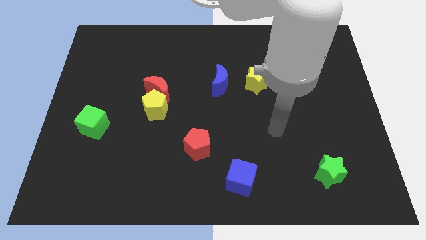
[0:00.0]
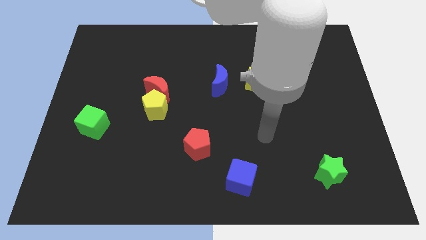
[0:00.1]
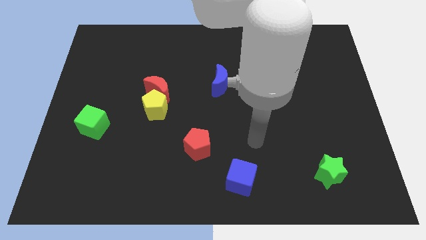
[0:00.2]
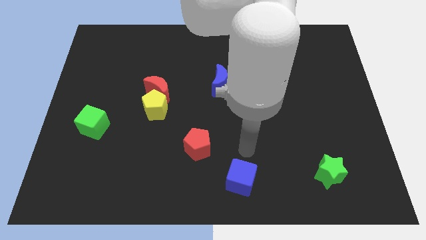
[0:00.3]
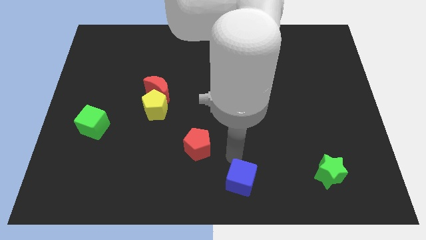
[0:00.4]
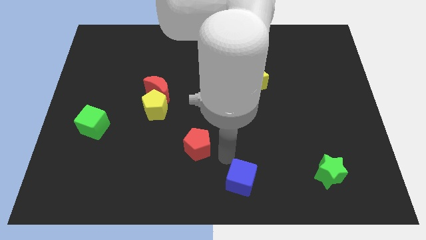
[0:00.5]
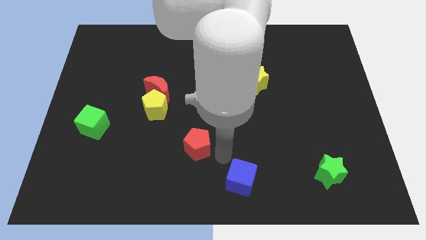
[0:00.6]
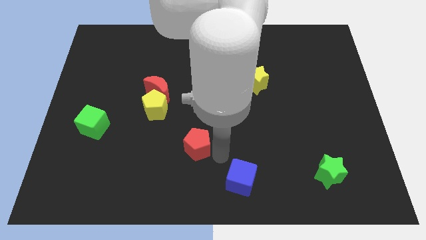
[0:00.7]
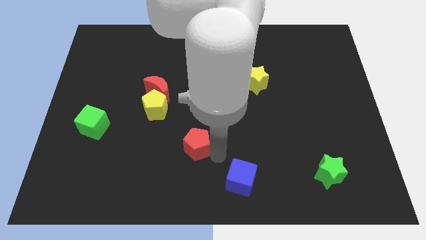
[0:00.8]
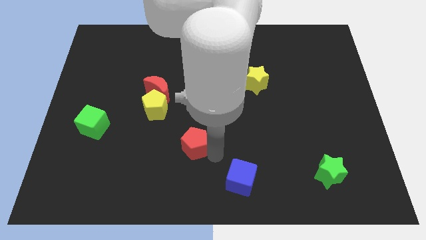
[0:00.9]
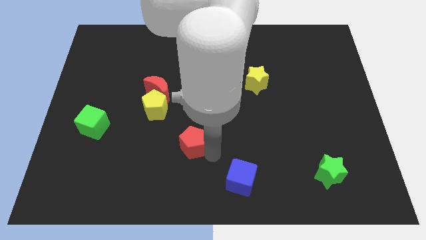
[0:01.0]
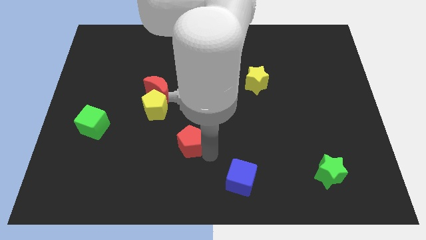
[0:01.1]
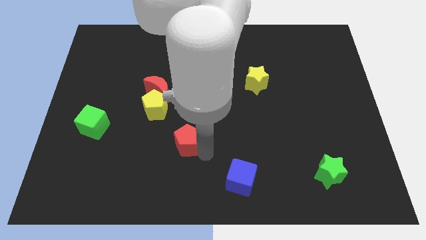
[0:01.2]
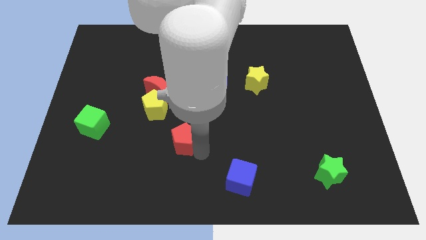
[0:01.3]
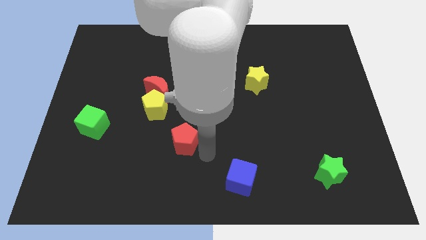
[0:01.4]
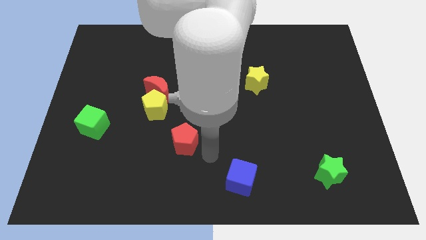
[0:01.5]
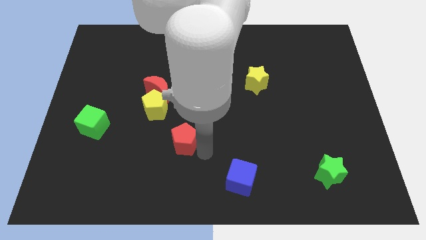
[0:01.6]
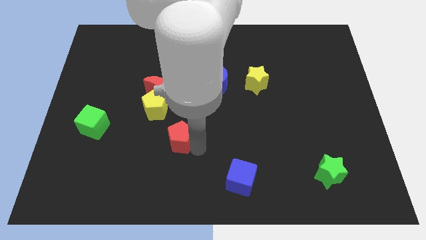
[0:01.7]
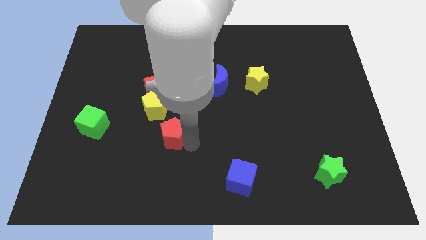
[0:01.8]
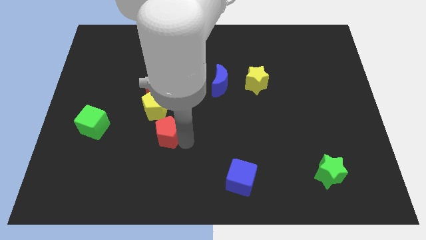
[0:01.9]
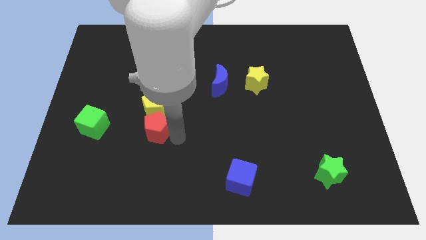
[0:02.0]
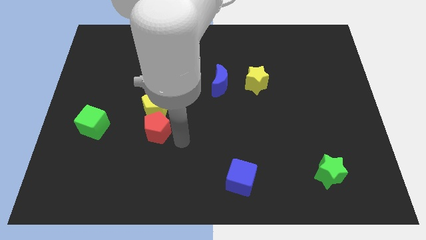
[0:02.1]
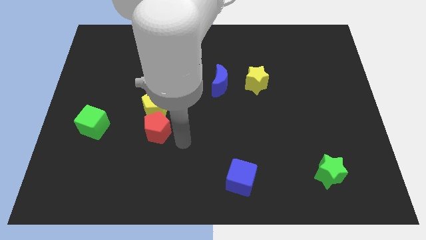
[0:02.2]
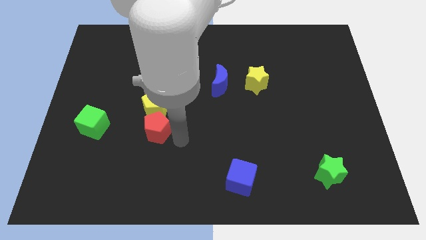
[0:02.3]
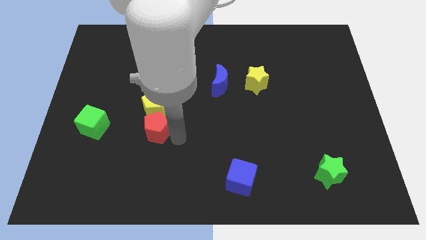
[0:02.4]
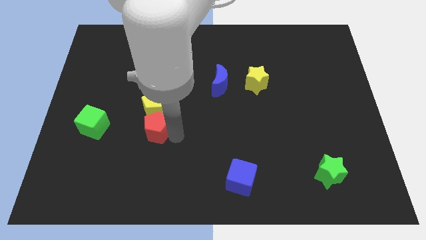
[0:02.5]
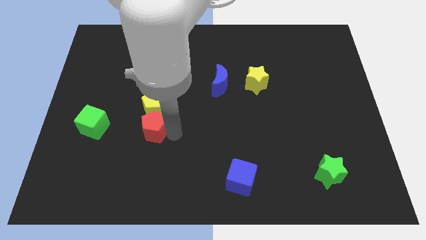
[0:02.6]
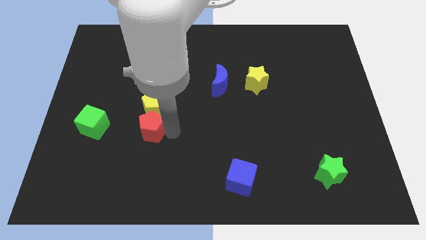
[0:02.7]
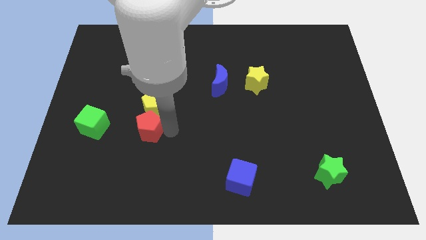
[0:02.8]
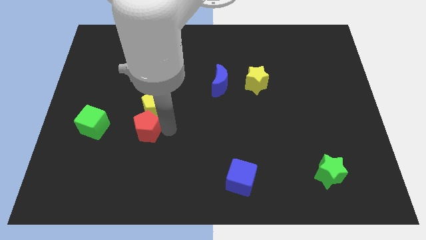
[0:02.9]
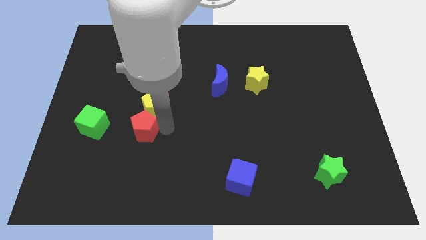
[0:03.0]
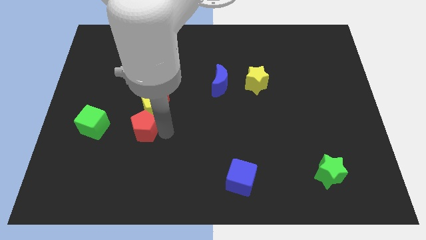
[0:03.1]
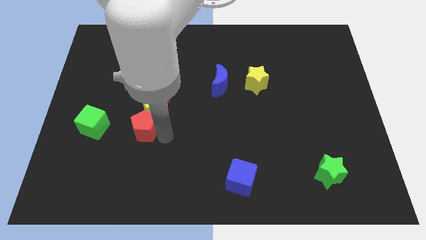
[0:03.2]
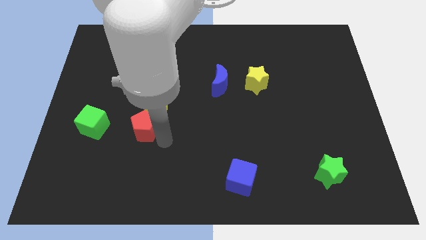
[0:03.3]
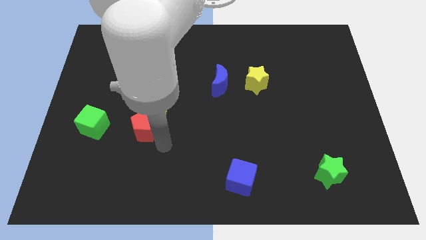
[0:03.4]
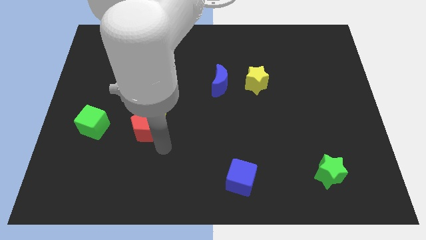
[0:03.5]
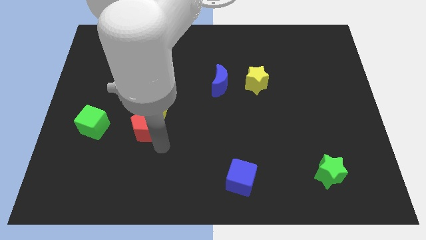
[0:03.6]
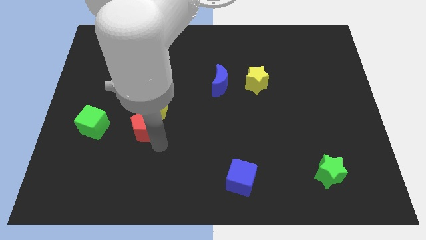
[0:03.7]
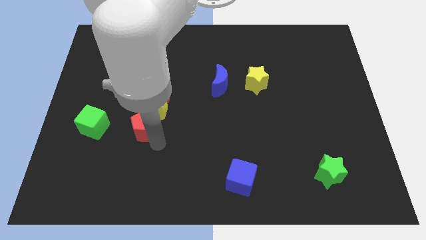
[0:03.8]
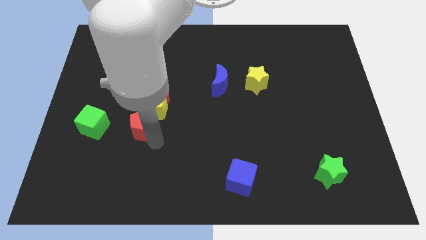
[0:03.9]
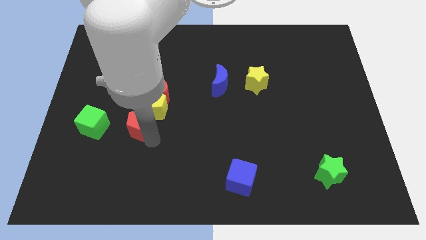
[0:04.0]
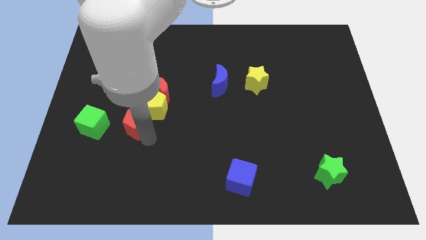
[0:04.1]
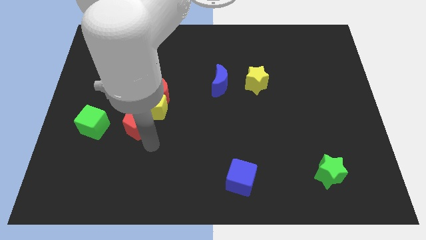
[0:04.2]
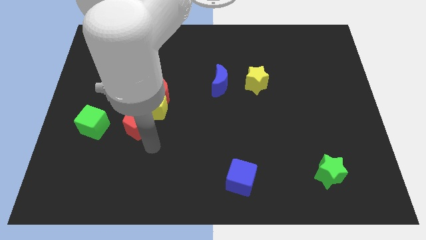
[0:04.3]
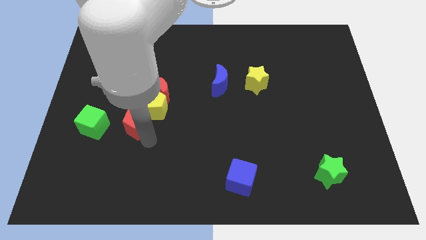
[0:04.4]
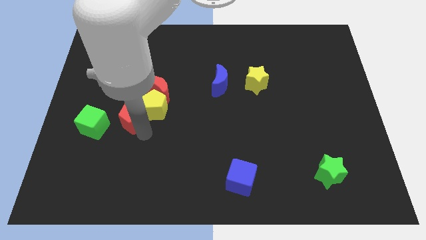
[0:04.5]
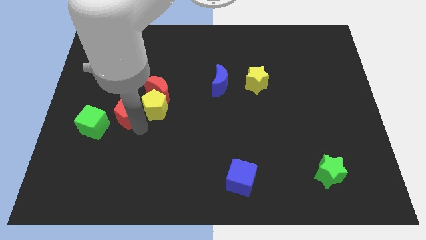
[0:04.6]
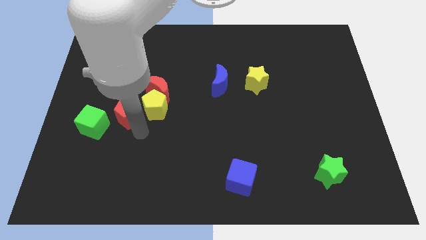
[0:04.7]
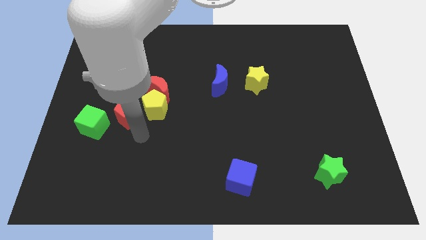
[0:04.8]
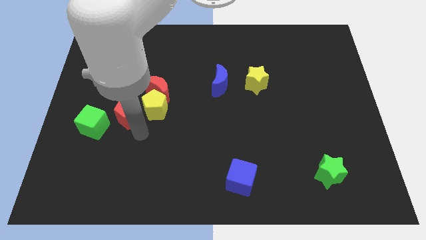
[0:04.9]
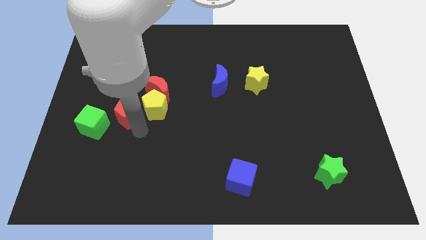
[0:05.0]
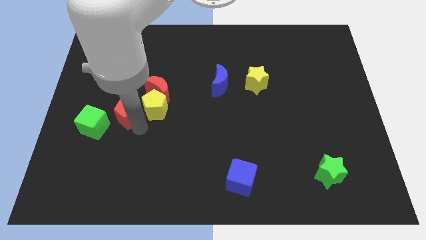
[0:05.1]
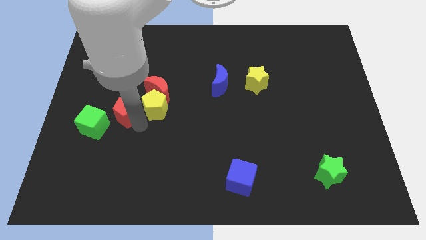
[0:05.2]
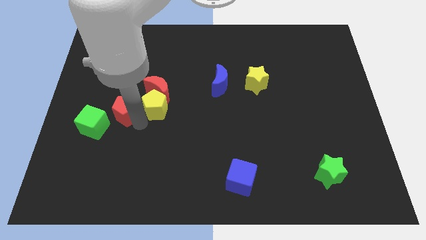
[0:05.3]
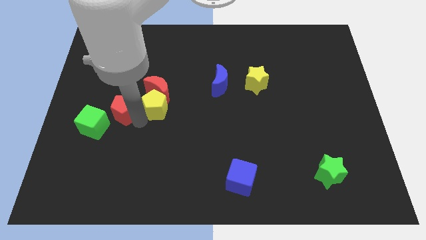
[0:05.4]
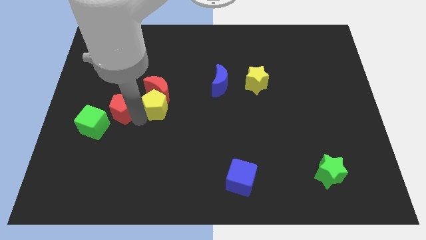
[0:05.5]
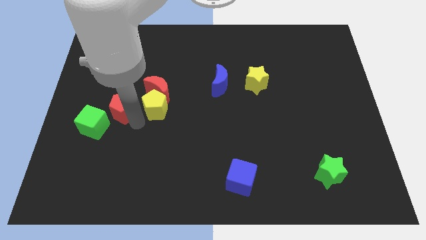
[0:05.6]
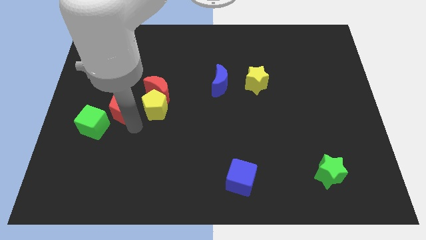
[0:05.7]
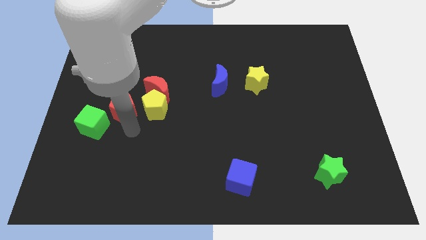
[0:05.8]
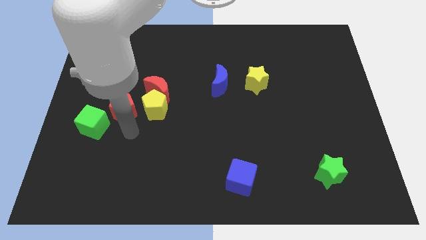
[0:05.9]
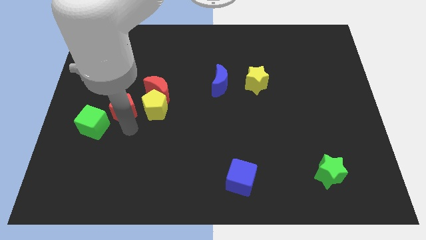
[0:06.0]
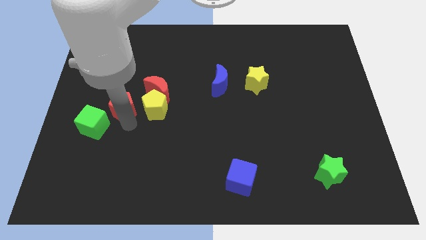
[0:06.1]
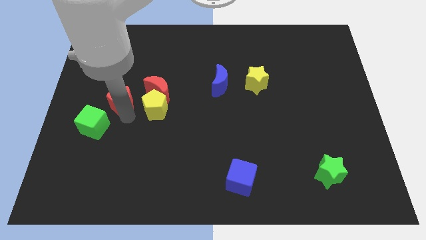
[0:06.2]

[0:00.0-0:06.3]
push the red pentagon upwards and to the left

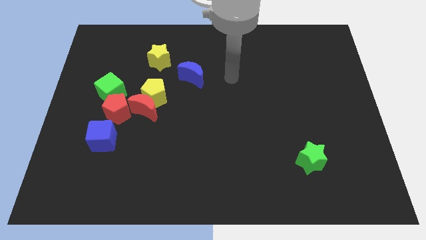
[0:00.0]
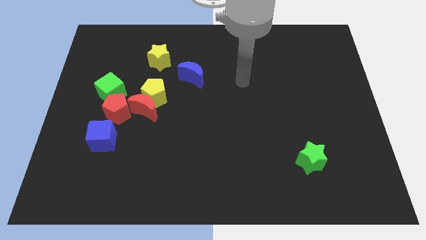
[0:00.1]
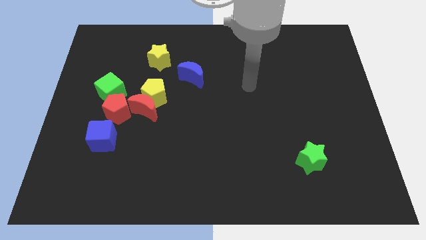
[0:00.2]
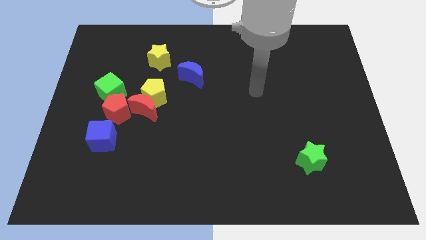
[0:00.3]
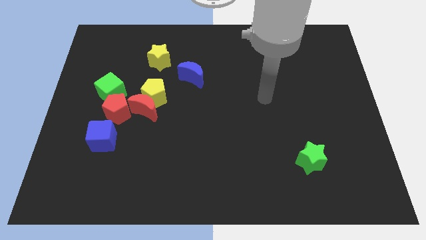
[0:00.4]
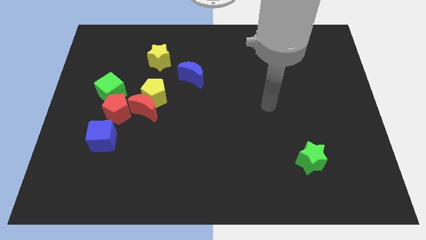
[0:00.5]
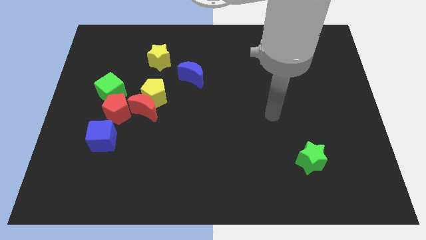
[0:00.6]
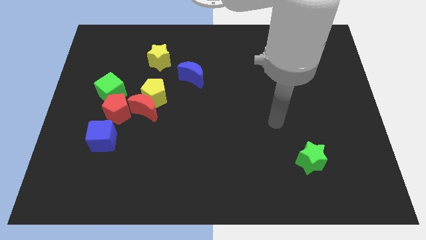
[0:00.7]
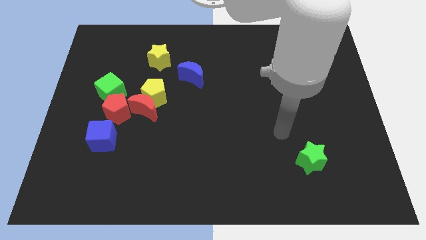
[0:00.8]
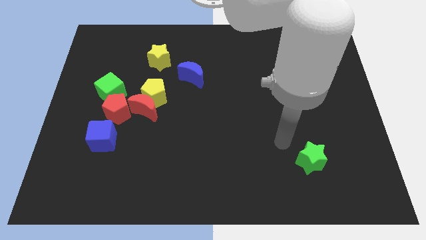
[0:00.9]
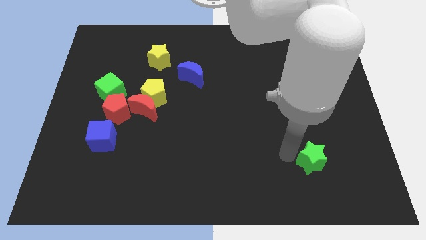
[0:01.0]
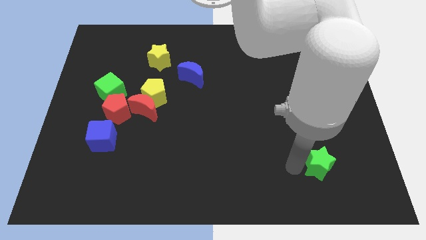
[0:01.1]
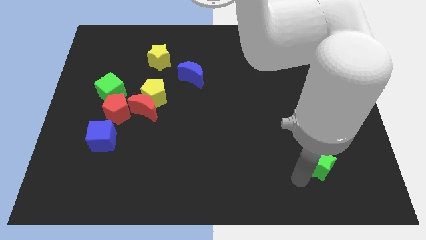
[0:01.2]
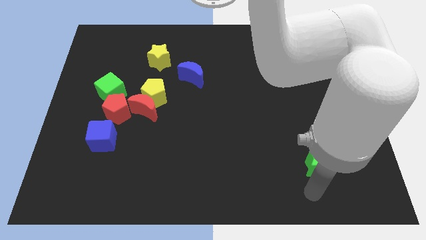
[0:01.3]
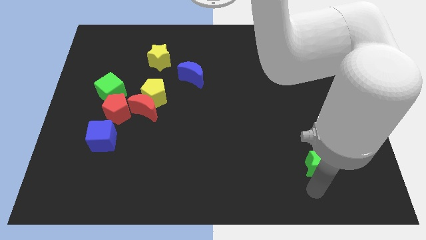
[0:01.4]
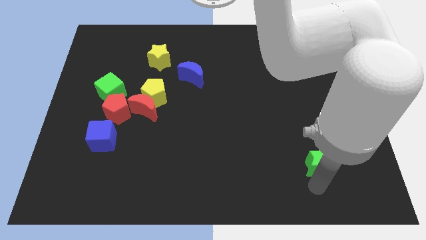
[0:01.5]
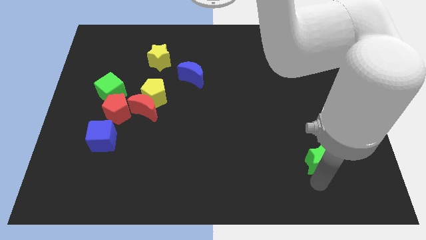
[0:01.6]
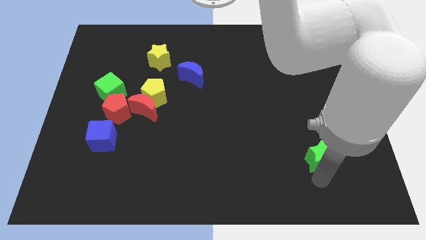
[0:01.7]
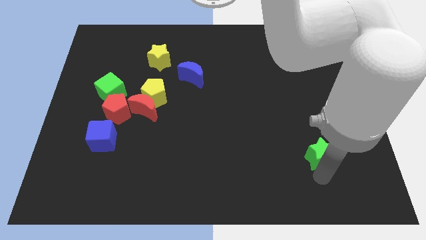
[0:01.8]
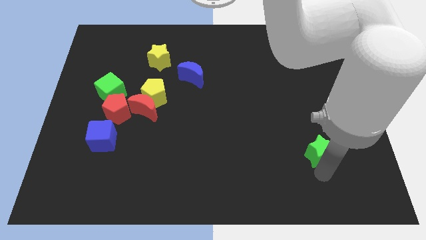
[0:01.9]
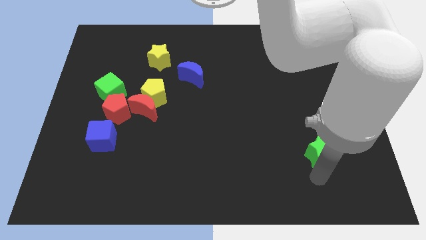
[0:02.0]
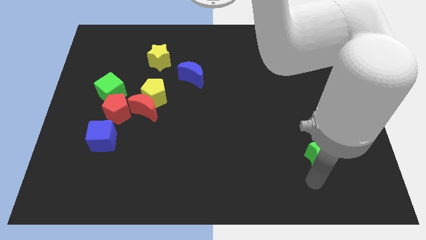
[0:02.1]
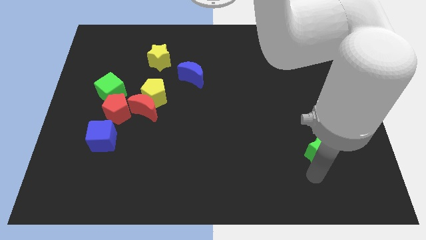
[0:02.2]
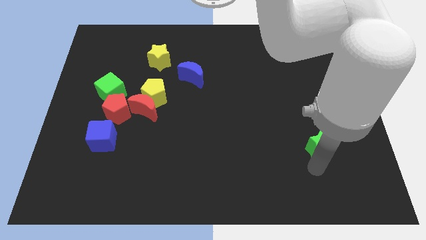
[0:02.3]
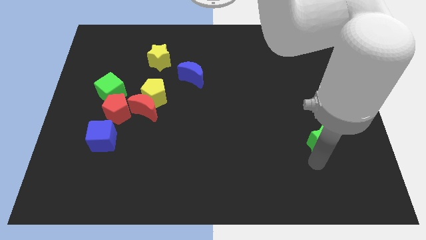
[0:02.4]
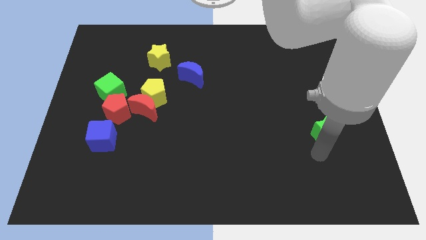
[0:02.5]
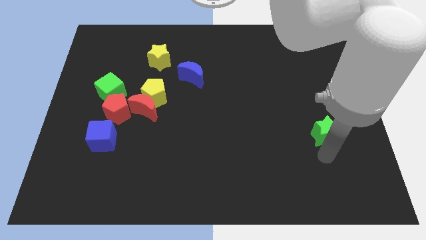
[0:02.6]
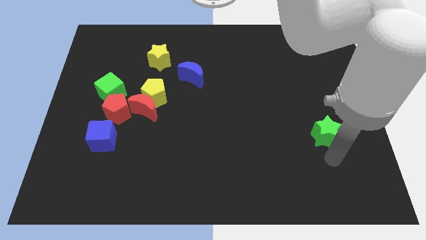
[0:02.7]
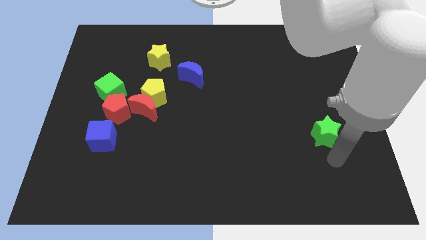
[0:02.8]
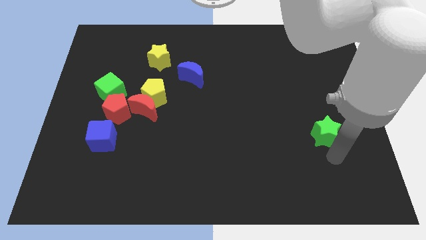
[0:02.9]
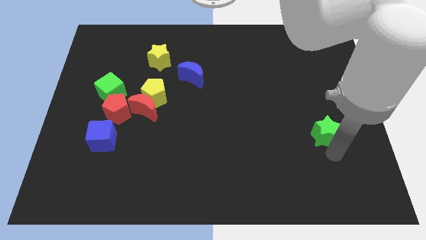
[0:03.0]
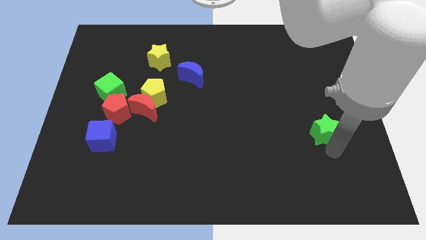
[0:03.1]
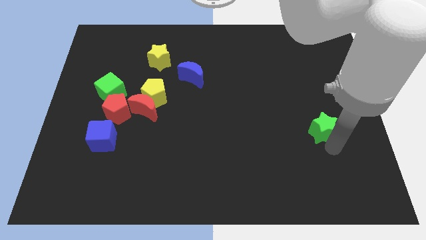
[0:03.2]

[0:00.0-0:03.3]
move the green star somewhat up
